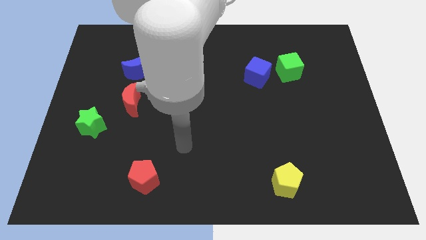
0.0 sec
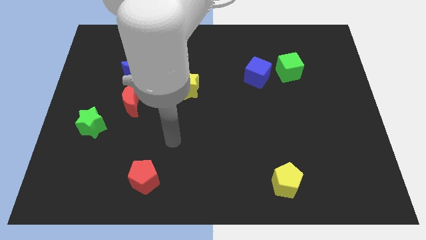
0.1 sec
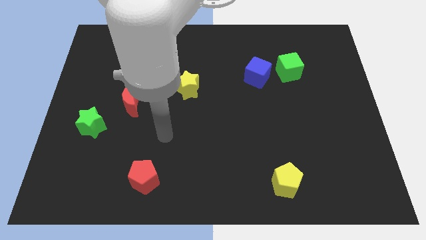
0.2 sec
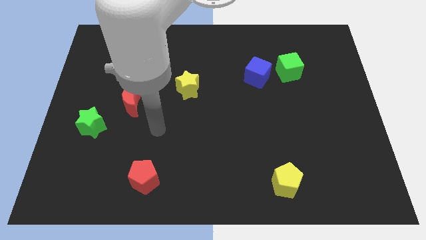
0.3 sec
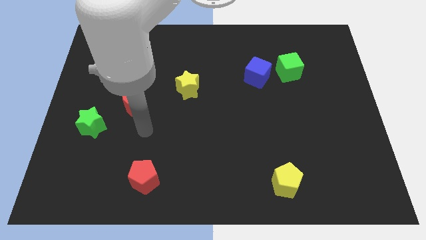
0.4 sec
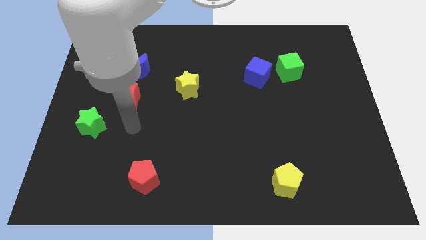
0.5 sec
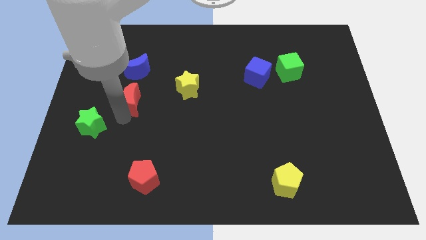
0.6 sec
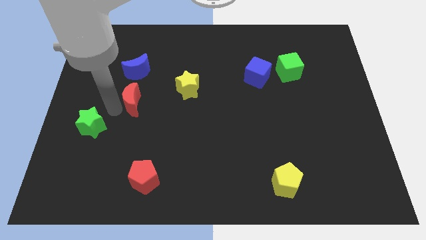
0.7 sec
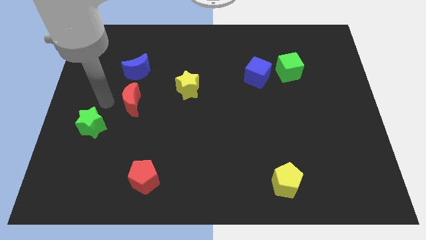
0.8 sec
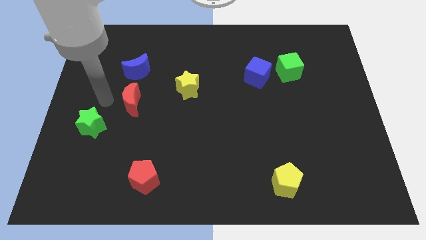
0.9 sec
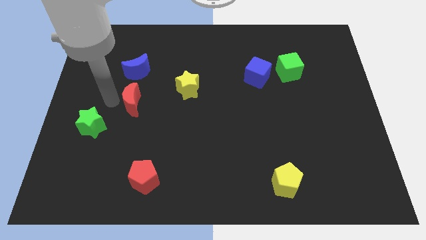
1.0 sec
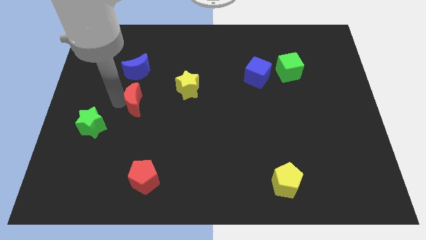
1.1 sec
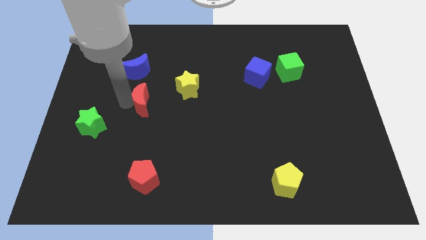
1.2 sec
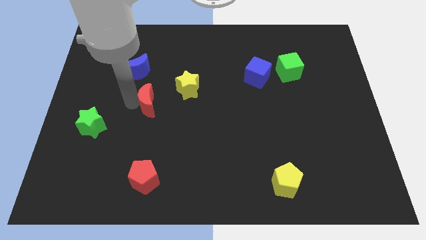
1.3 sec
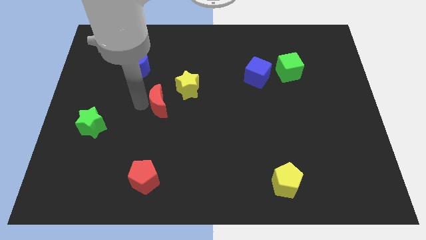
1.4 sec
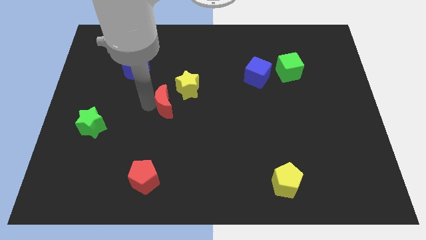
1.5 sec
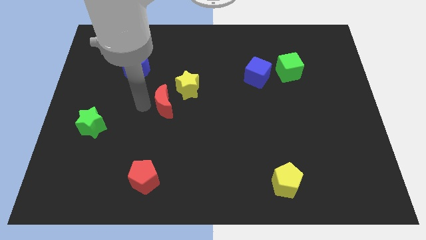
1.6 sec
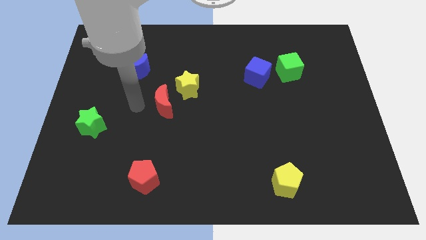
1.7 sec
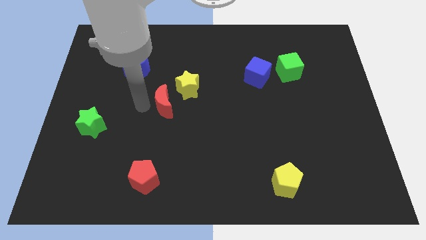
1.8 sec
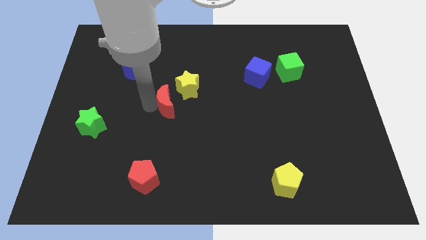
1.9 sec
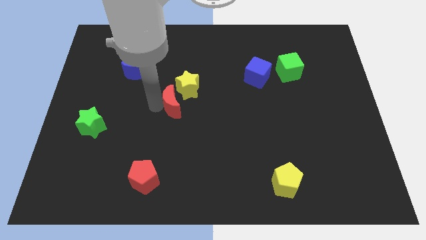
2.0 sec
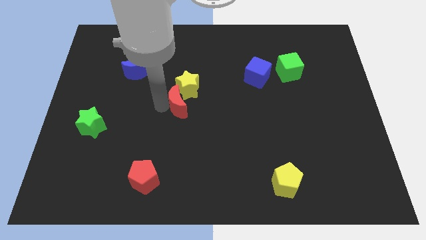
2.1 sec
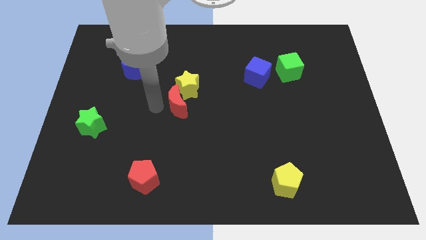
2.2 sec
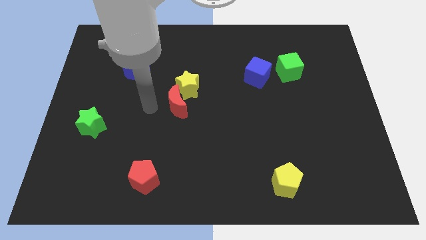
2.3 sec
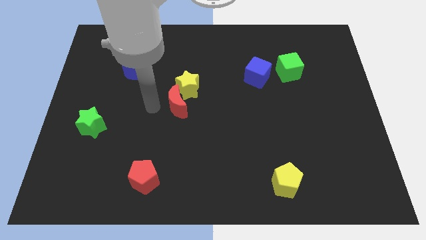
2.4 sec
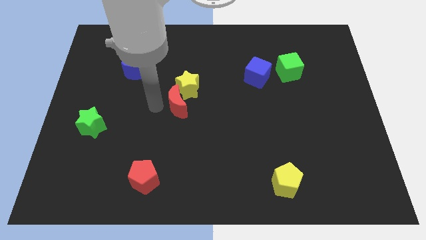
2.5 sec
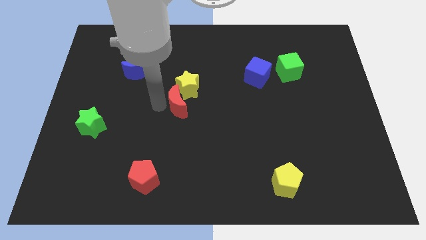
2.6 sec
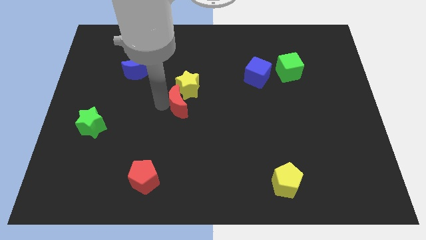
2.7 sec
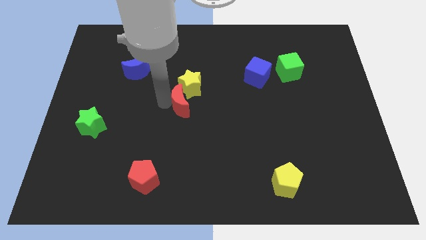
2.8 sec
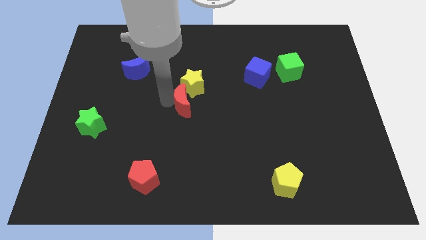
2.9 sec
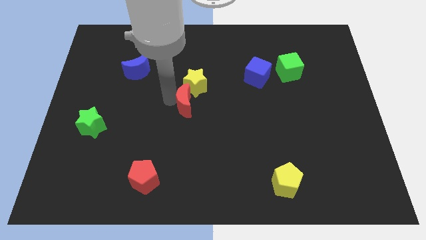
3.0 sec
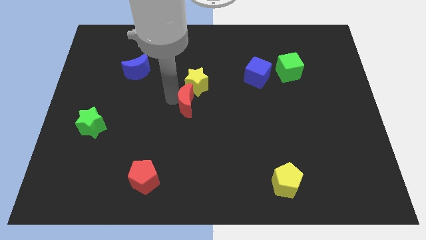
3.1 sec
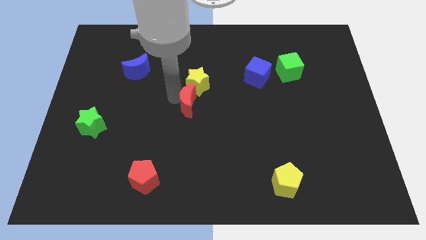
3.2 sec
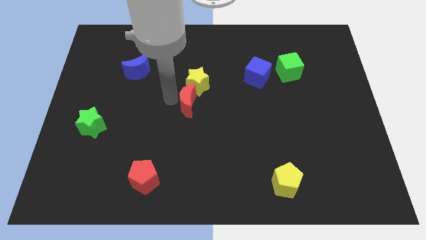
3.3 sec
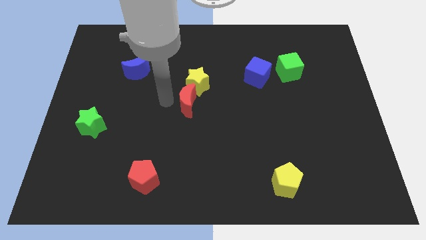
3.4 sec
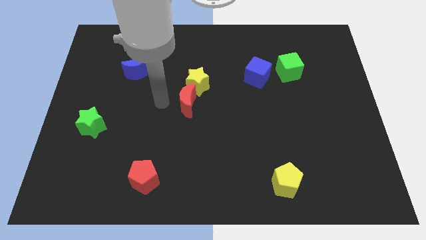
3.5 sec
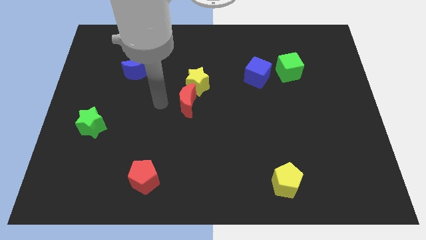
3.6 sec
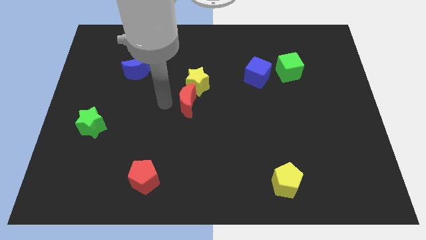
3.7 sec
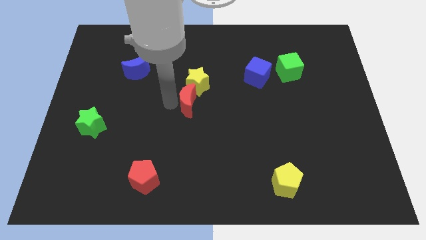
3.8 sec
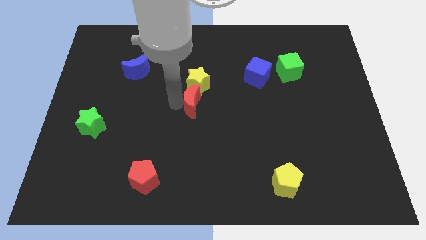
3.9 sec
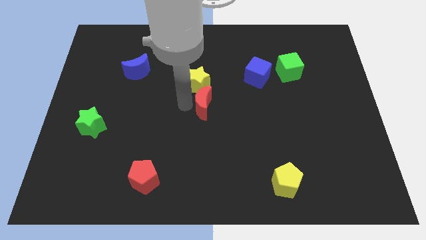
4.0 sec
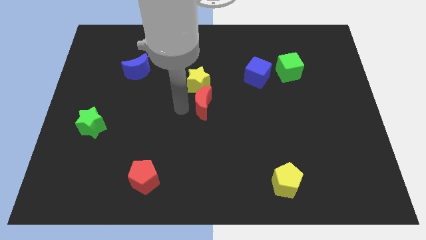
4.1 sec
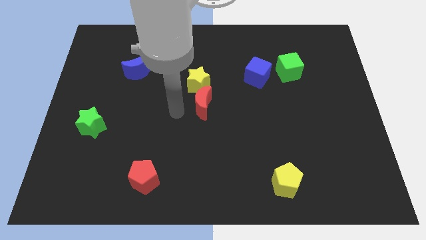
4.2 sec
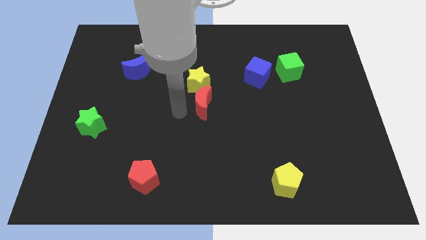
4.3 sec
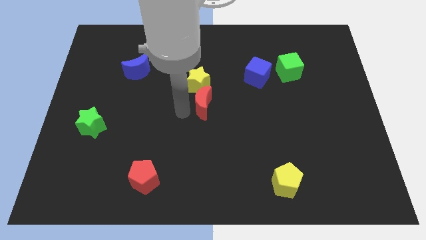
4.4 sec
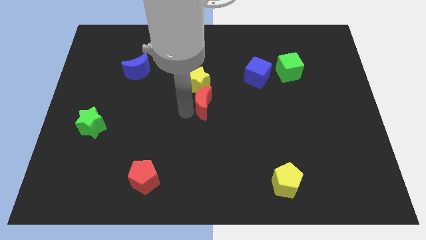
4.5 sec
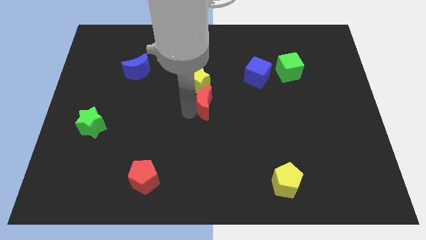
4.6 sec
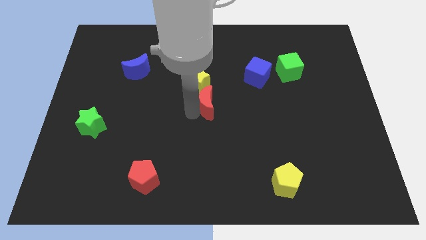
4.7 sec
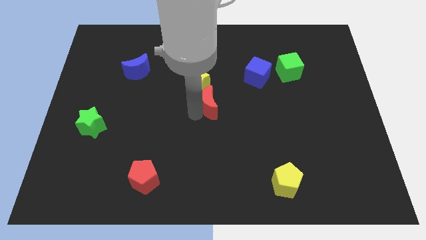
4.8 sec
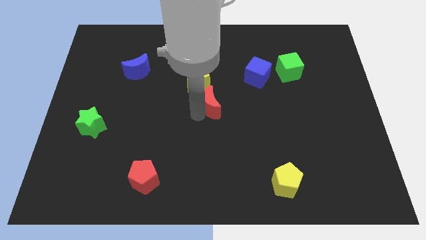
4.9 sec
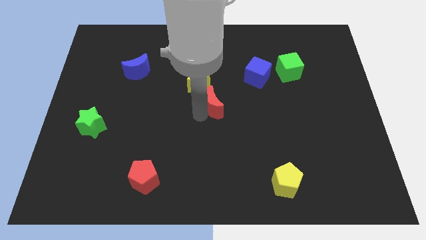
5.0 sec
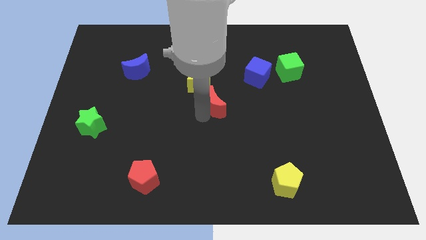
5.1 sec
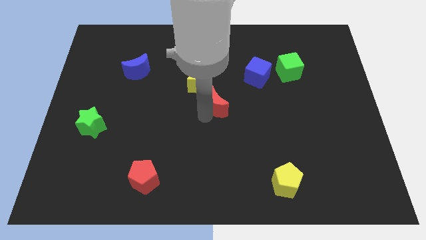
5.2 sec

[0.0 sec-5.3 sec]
push the red moon right

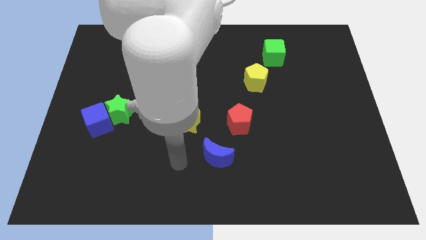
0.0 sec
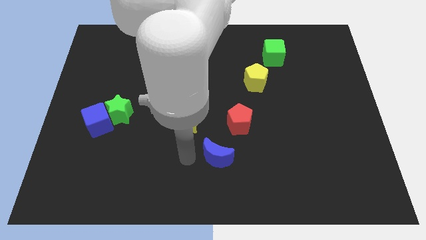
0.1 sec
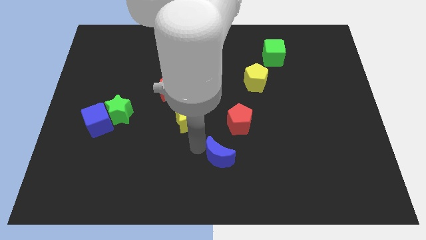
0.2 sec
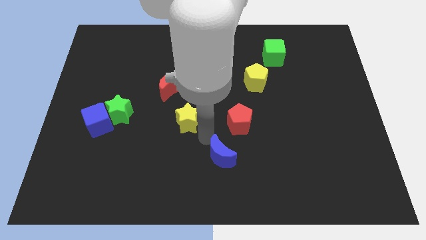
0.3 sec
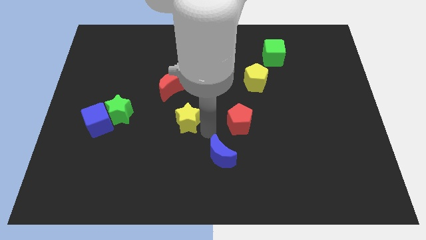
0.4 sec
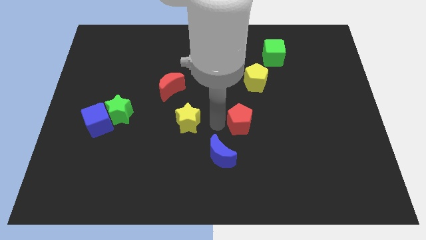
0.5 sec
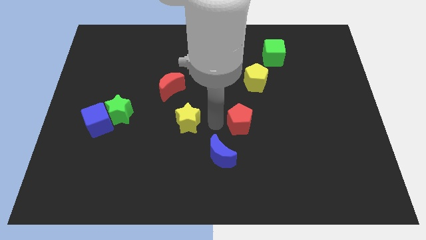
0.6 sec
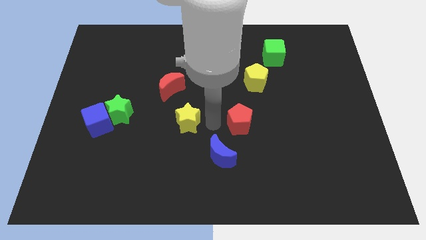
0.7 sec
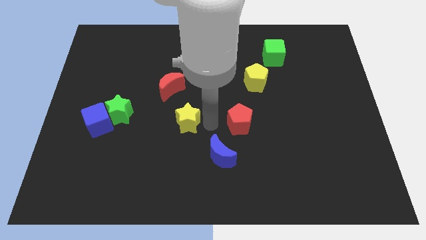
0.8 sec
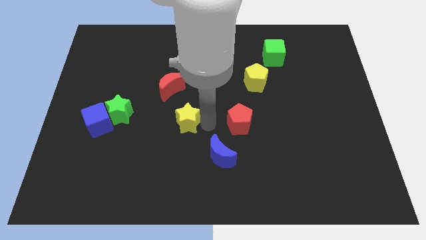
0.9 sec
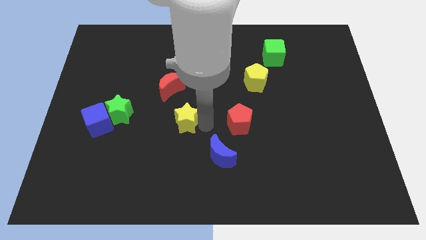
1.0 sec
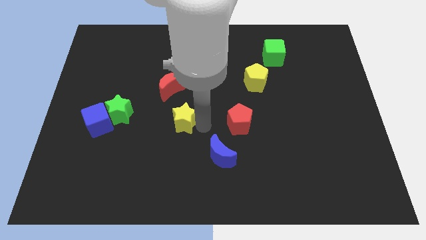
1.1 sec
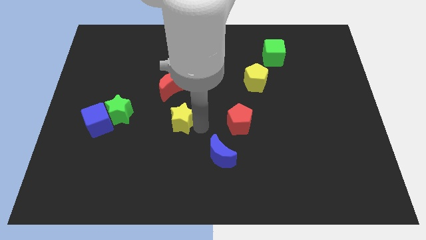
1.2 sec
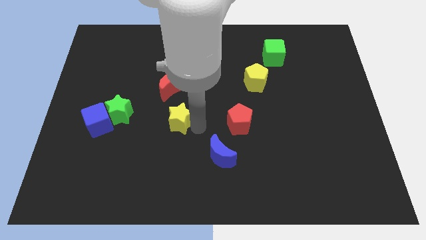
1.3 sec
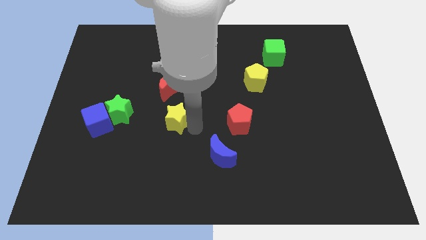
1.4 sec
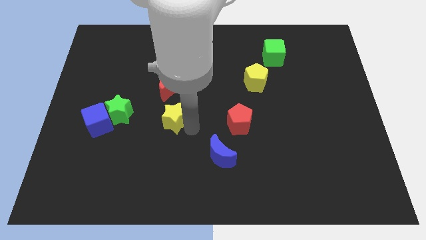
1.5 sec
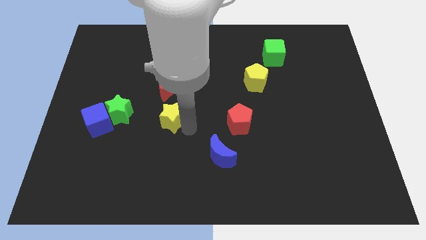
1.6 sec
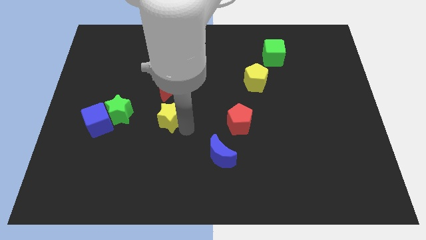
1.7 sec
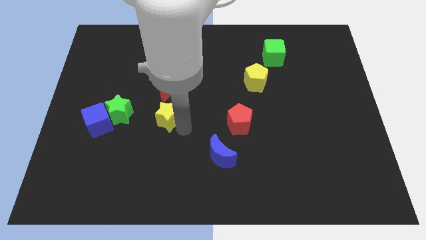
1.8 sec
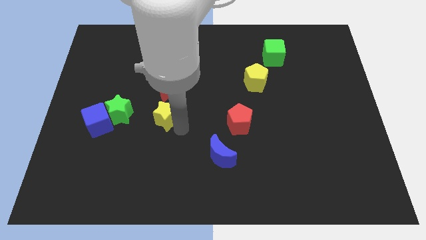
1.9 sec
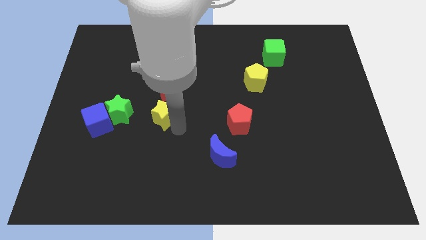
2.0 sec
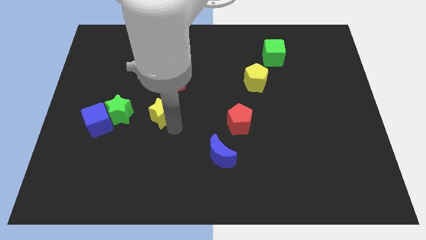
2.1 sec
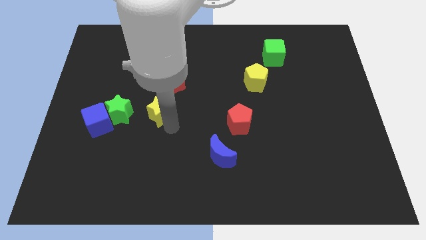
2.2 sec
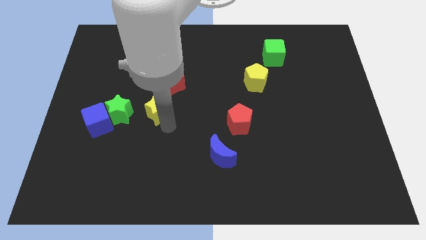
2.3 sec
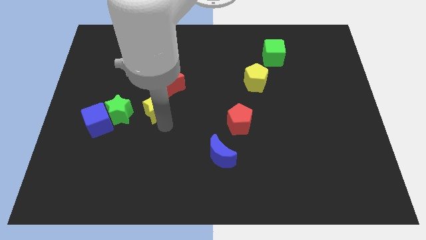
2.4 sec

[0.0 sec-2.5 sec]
move the yellow star upwards and to the left diagonally a little bit

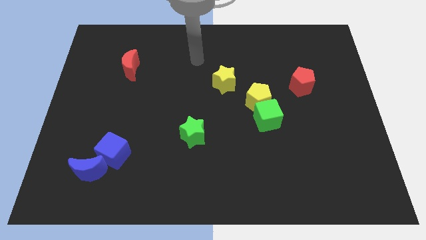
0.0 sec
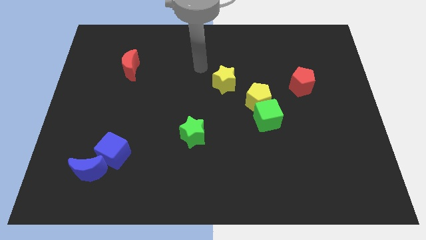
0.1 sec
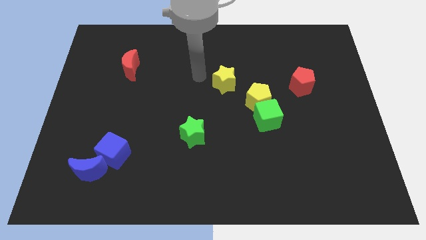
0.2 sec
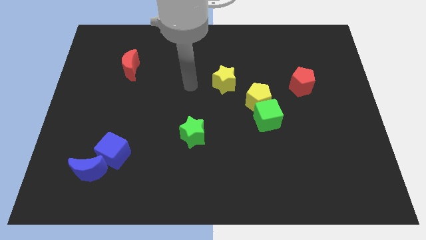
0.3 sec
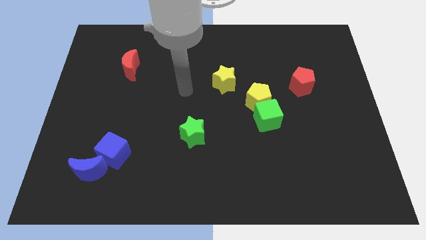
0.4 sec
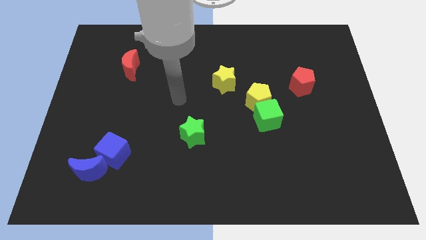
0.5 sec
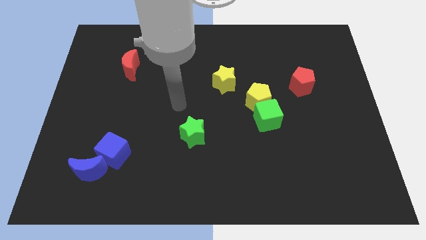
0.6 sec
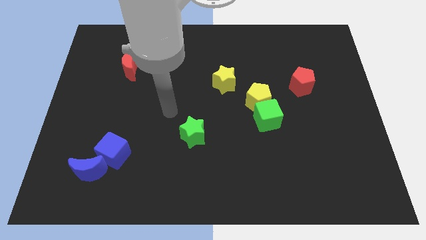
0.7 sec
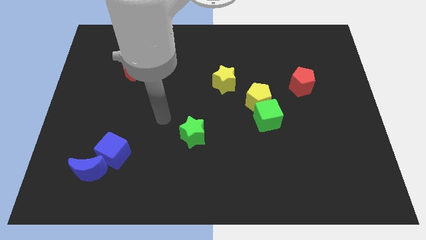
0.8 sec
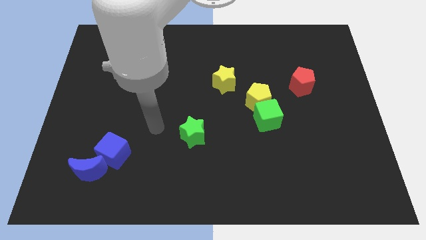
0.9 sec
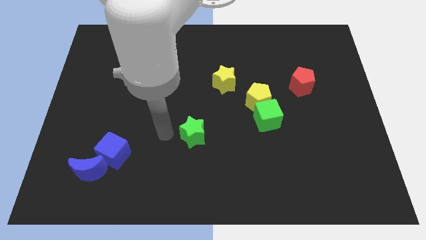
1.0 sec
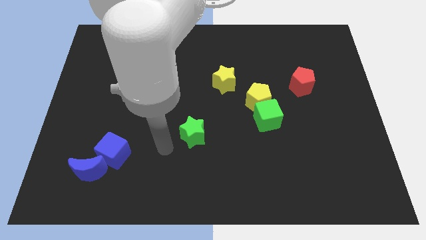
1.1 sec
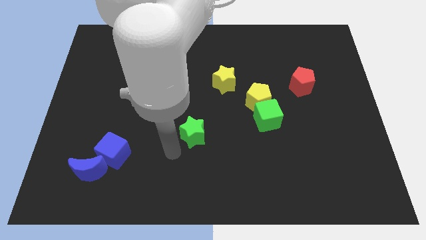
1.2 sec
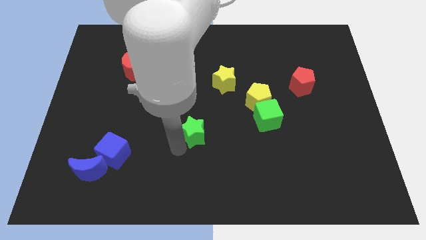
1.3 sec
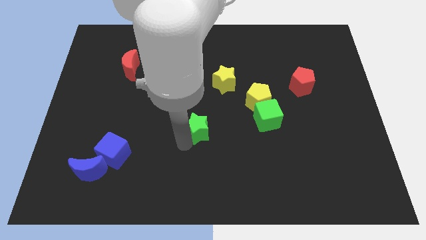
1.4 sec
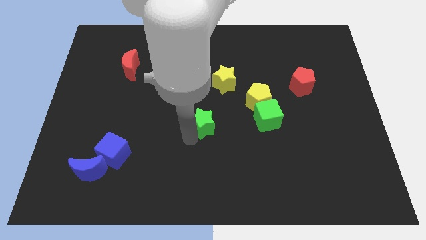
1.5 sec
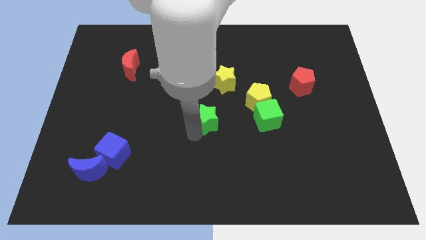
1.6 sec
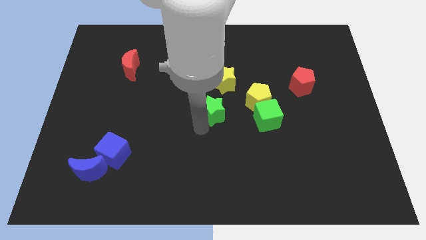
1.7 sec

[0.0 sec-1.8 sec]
push the green star upwards and right diagonally slightly
